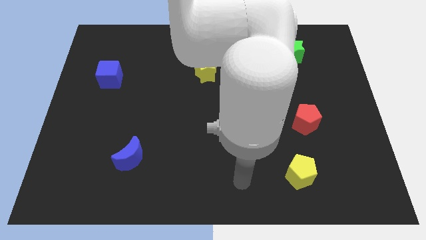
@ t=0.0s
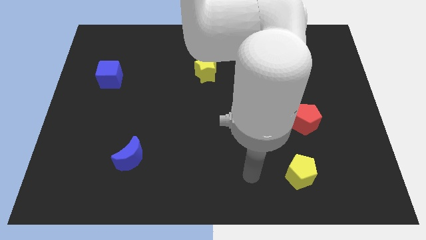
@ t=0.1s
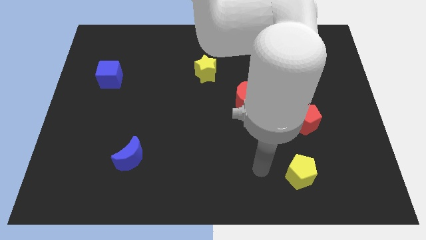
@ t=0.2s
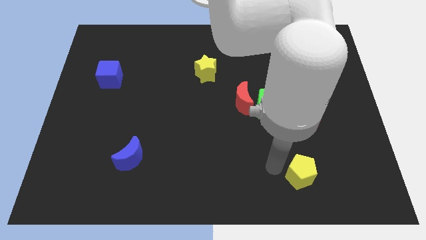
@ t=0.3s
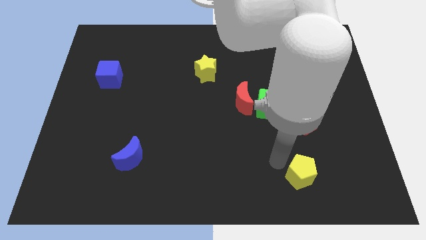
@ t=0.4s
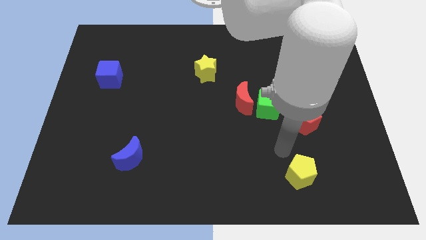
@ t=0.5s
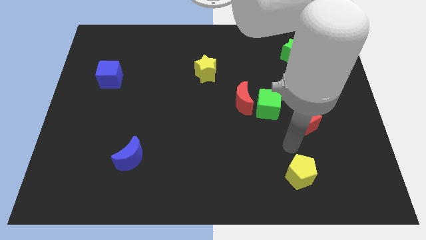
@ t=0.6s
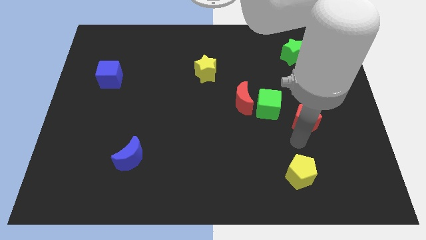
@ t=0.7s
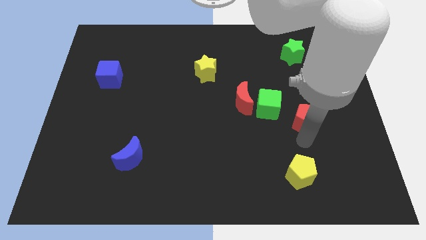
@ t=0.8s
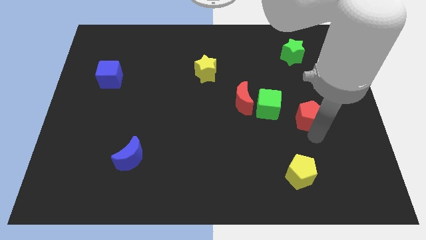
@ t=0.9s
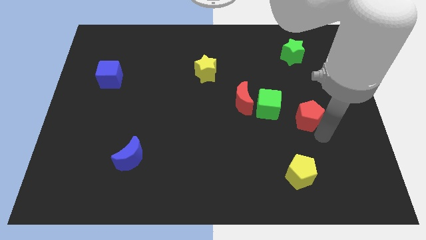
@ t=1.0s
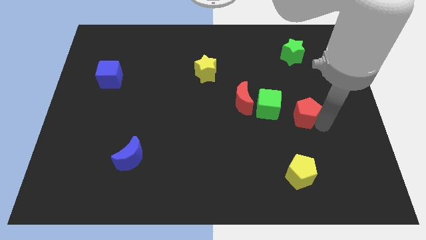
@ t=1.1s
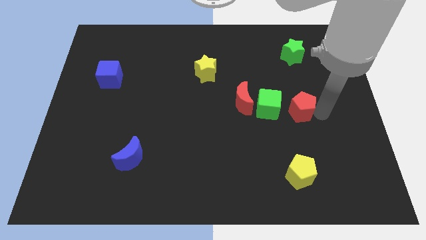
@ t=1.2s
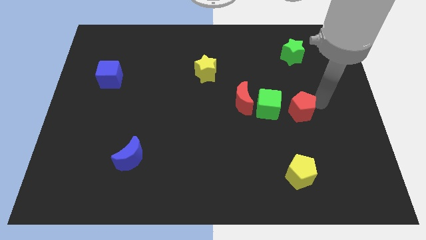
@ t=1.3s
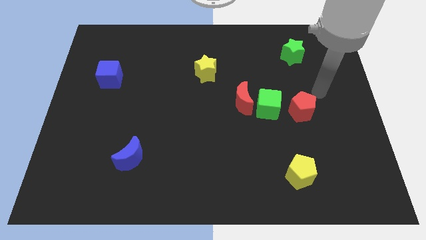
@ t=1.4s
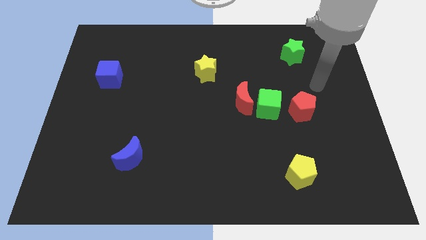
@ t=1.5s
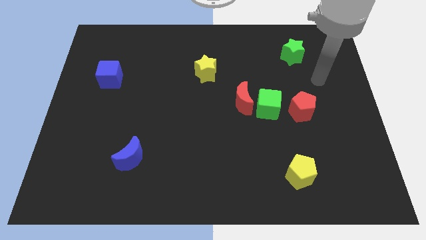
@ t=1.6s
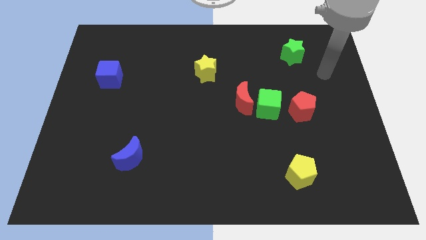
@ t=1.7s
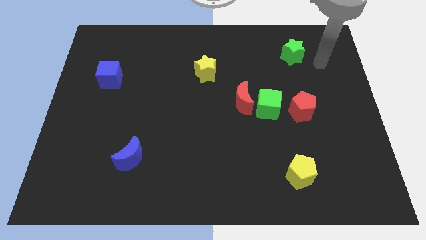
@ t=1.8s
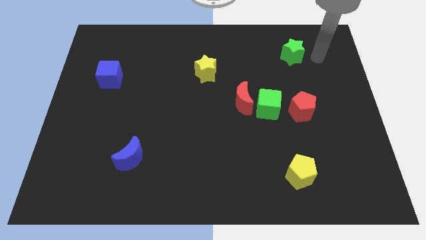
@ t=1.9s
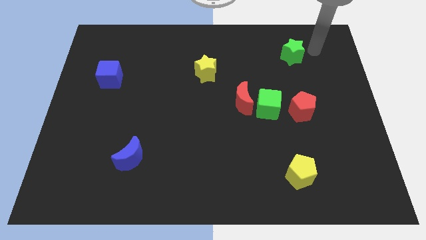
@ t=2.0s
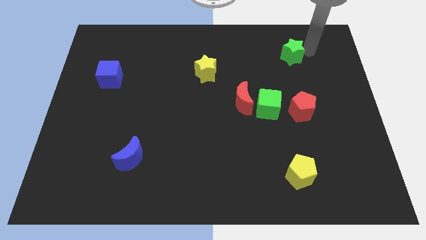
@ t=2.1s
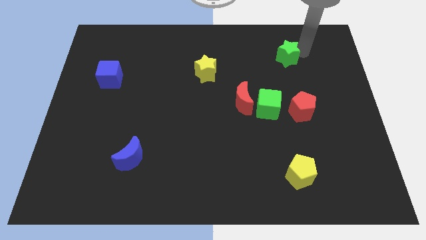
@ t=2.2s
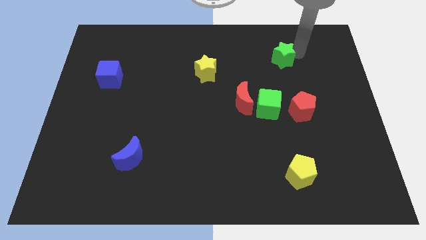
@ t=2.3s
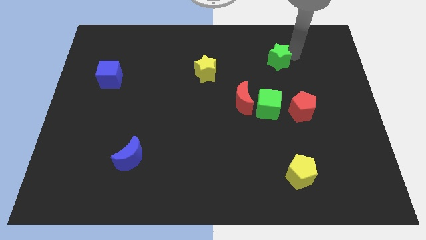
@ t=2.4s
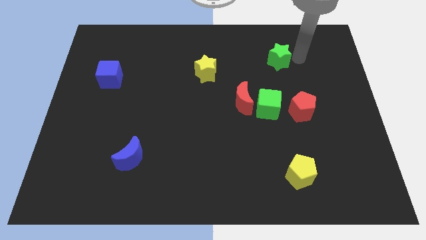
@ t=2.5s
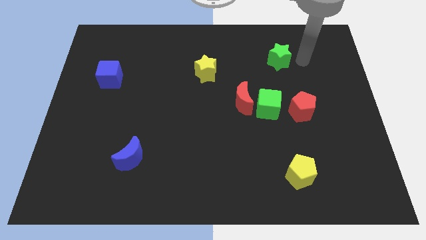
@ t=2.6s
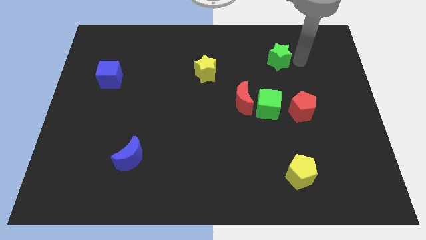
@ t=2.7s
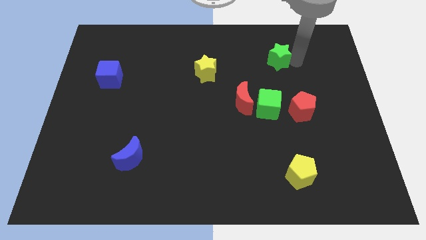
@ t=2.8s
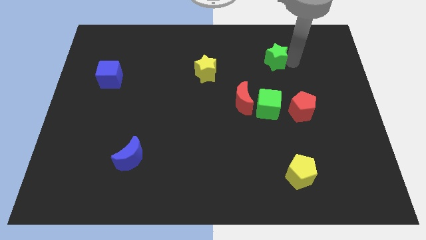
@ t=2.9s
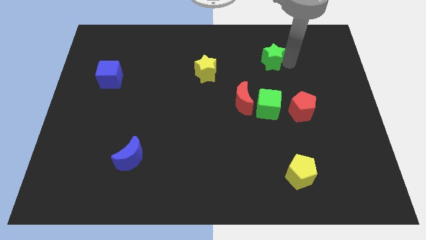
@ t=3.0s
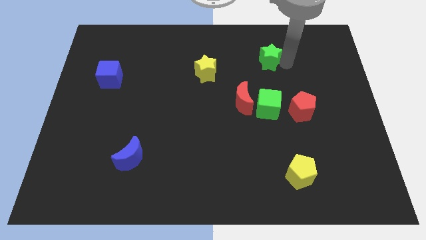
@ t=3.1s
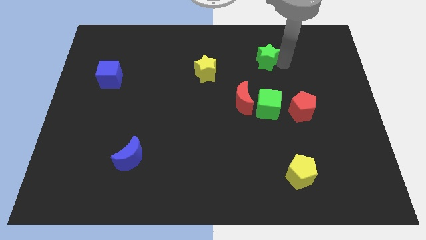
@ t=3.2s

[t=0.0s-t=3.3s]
move the green star to the left slightly

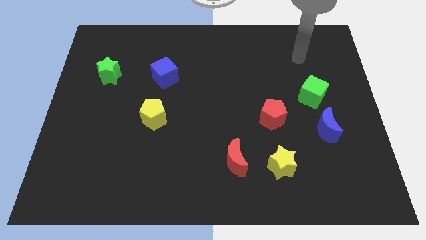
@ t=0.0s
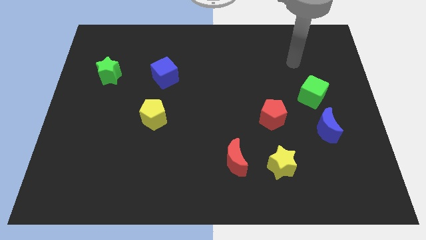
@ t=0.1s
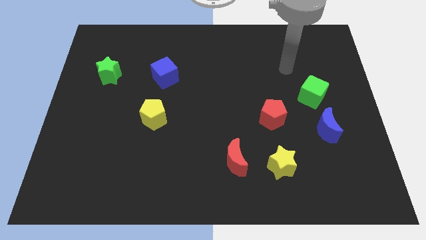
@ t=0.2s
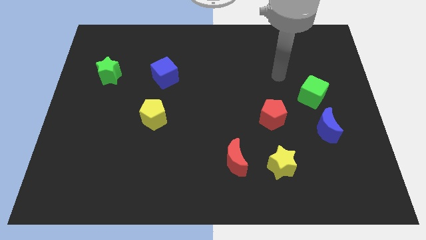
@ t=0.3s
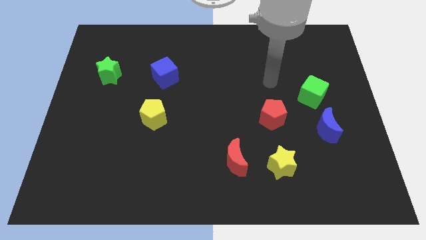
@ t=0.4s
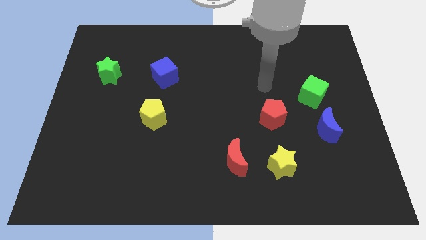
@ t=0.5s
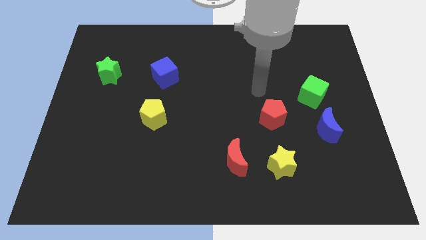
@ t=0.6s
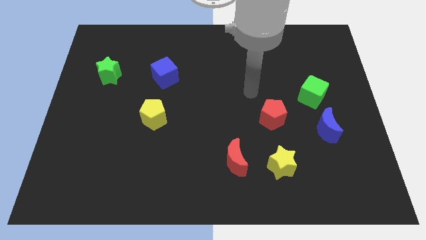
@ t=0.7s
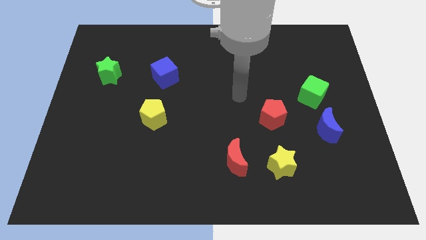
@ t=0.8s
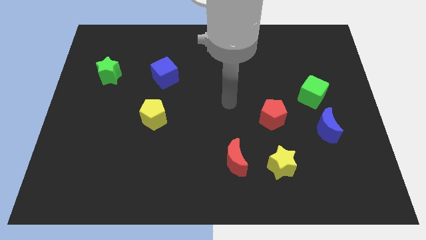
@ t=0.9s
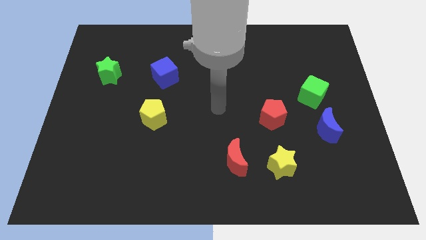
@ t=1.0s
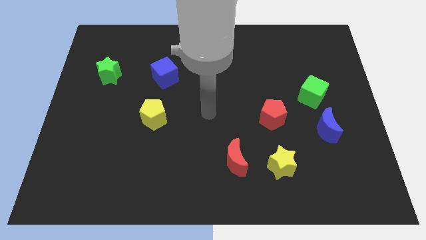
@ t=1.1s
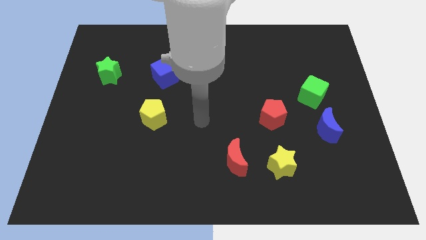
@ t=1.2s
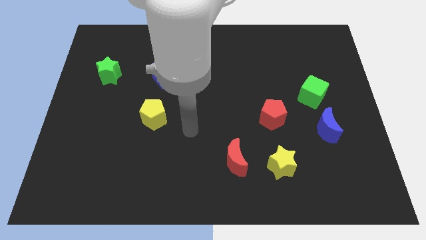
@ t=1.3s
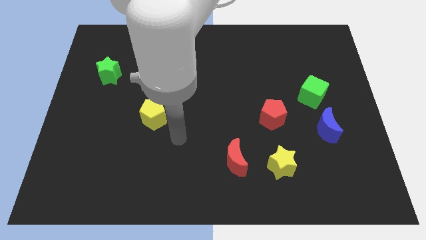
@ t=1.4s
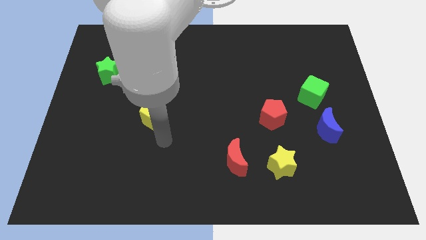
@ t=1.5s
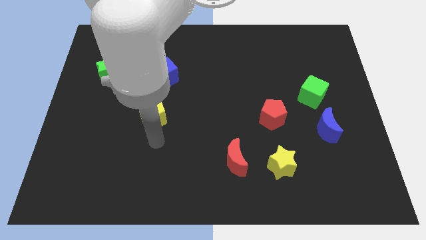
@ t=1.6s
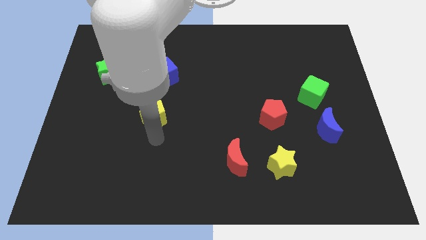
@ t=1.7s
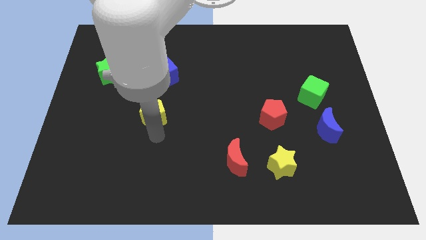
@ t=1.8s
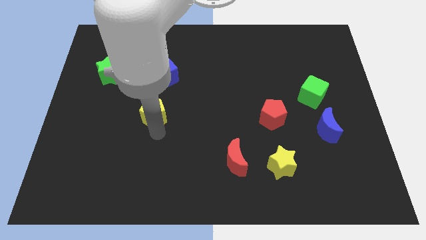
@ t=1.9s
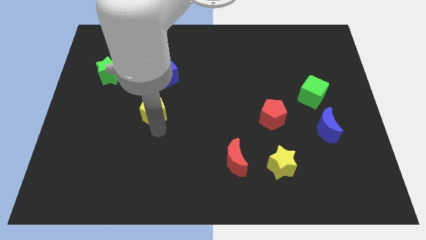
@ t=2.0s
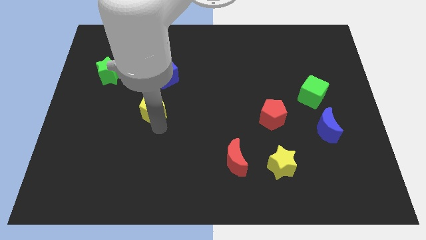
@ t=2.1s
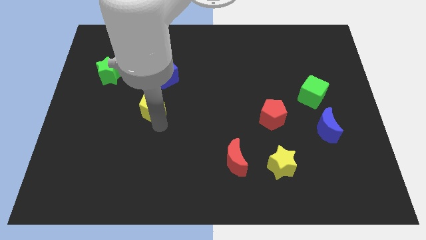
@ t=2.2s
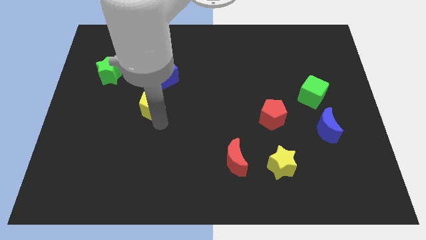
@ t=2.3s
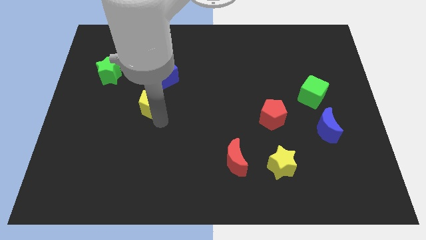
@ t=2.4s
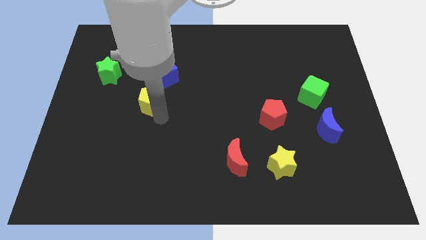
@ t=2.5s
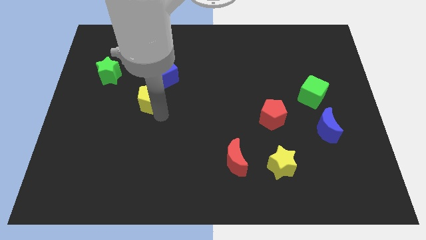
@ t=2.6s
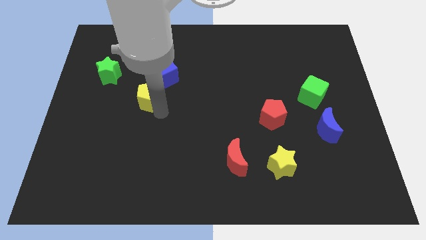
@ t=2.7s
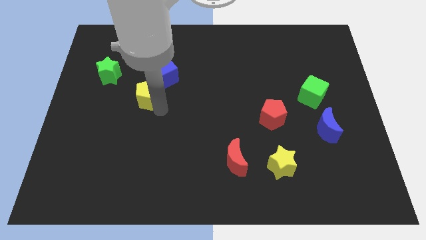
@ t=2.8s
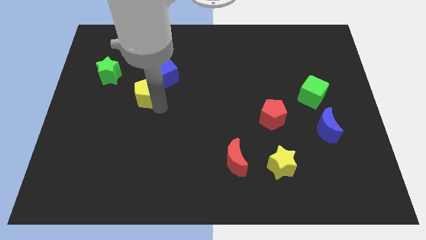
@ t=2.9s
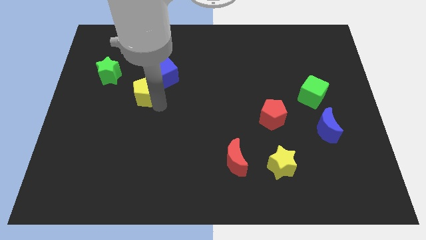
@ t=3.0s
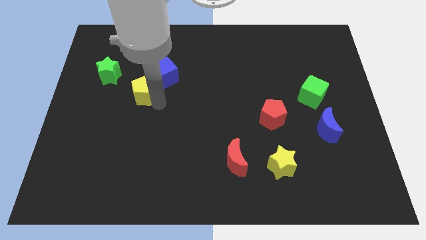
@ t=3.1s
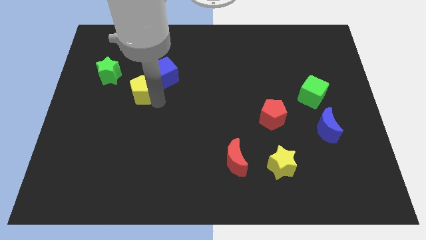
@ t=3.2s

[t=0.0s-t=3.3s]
slightly slide the yellow pentagon up

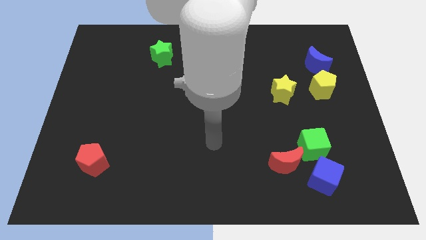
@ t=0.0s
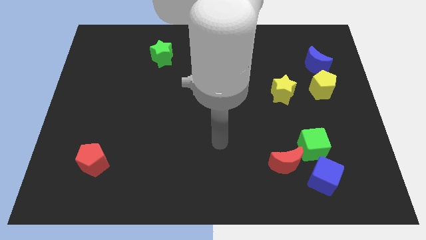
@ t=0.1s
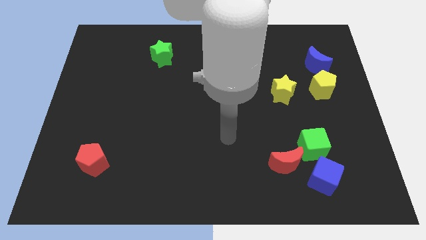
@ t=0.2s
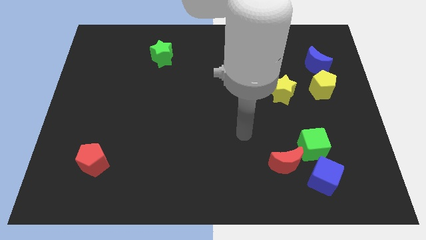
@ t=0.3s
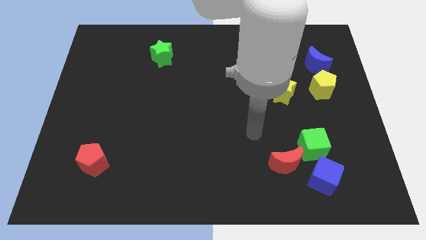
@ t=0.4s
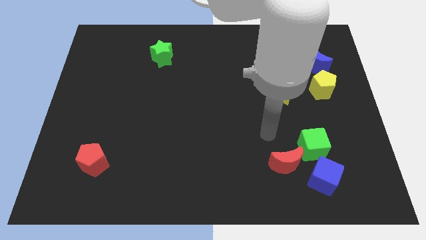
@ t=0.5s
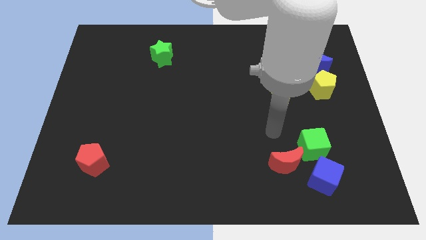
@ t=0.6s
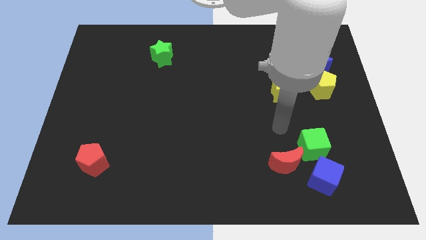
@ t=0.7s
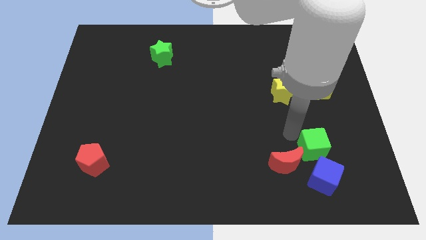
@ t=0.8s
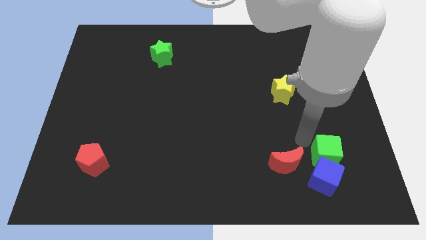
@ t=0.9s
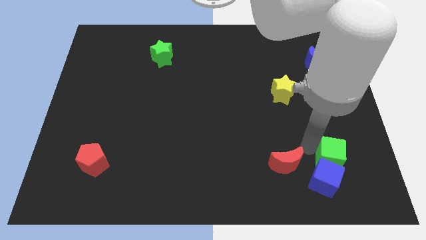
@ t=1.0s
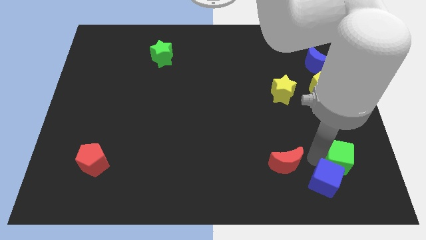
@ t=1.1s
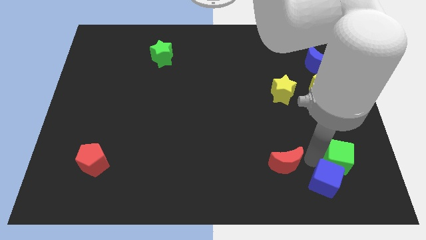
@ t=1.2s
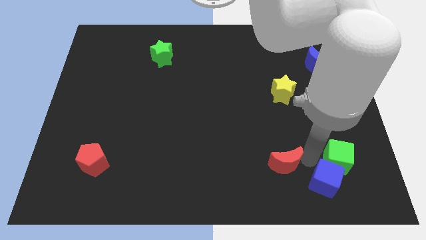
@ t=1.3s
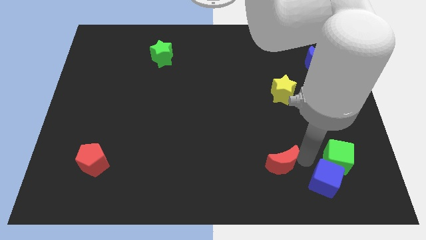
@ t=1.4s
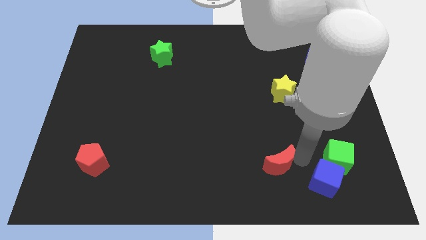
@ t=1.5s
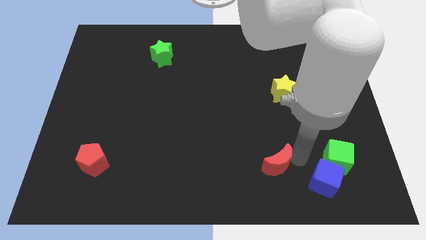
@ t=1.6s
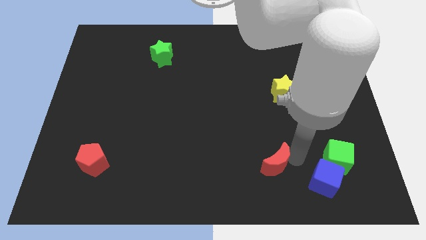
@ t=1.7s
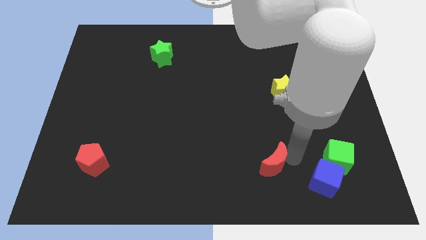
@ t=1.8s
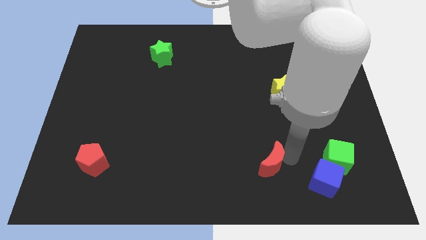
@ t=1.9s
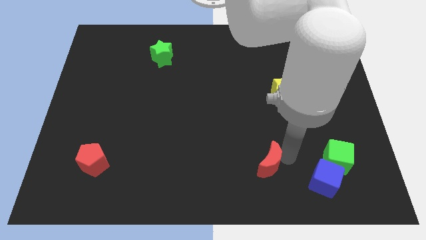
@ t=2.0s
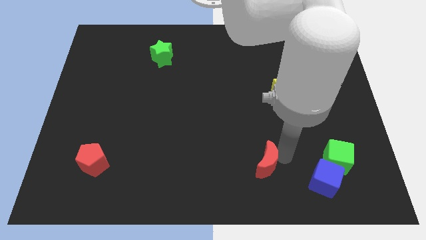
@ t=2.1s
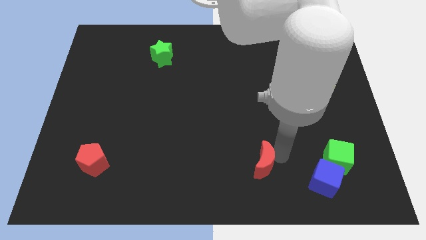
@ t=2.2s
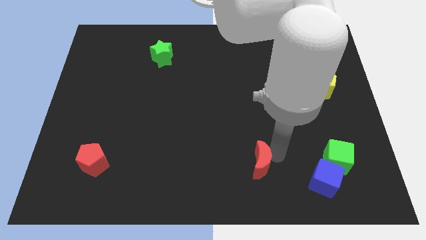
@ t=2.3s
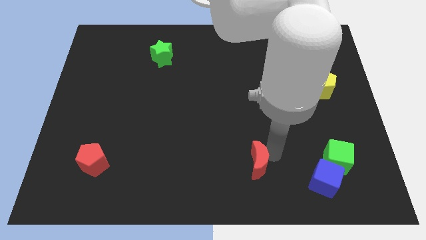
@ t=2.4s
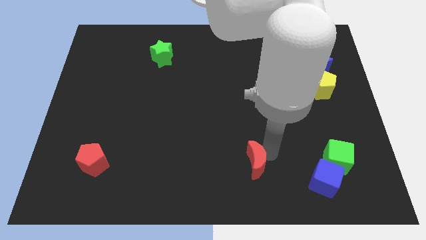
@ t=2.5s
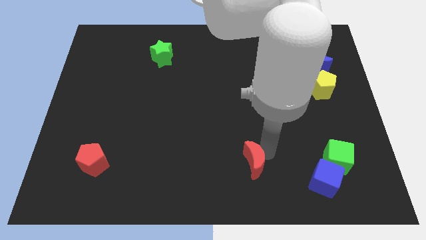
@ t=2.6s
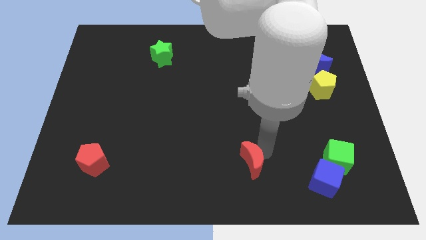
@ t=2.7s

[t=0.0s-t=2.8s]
push the red moon left a bit
